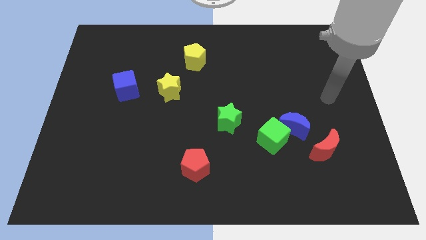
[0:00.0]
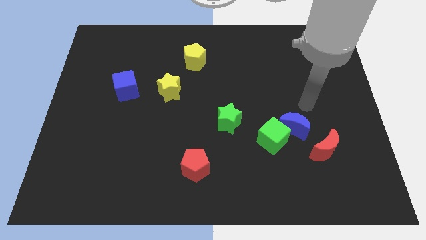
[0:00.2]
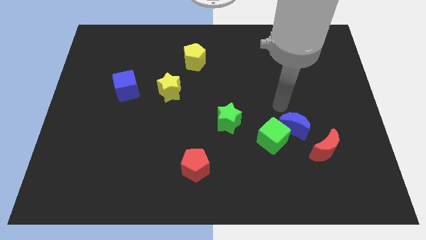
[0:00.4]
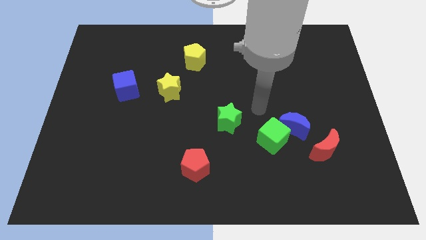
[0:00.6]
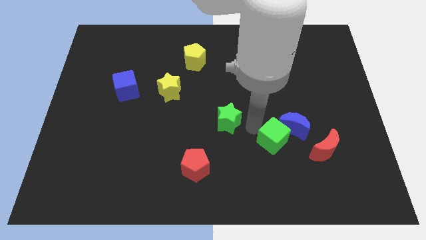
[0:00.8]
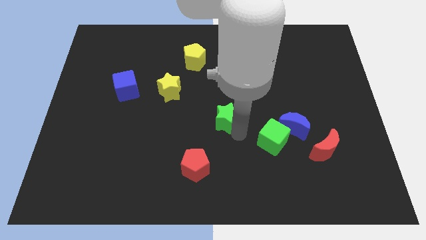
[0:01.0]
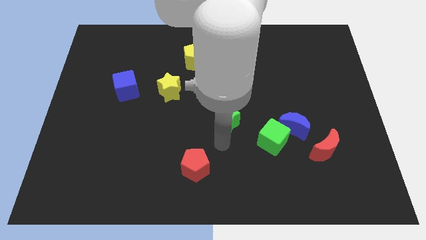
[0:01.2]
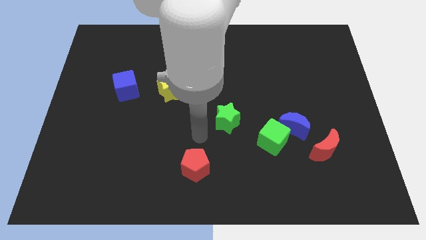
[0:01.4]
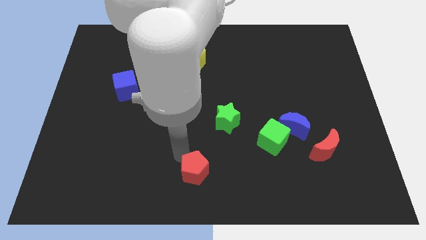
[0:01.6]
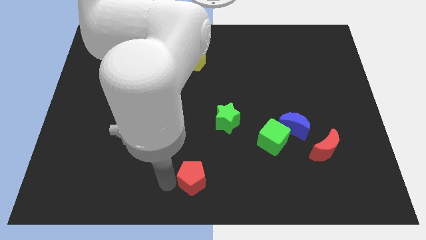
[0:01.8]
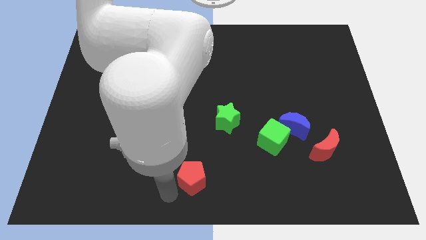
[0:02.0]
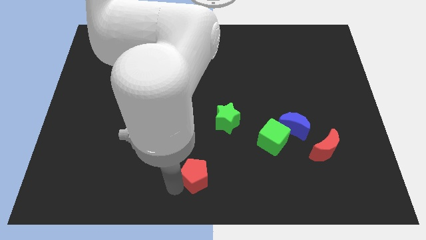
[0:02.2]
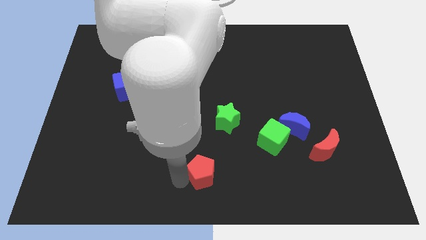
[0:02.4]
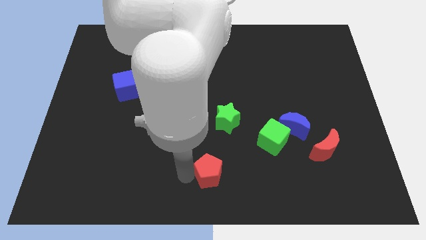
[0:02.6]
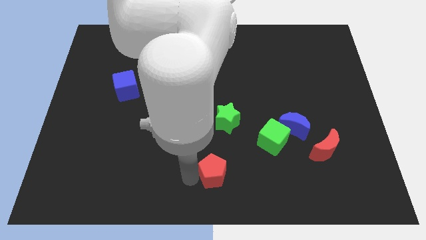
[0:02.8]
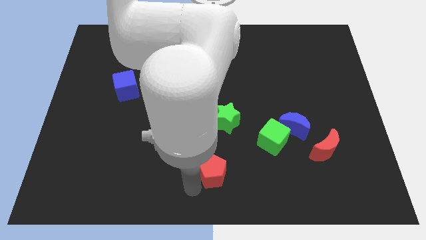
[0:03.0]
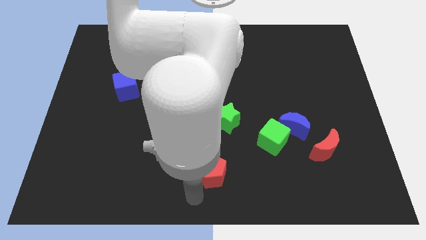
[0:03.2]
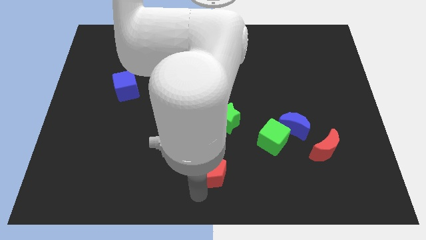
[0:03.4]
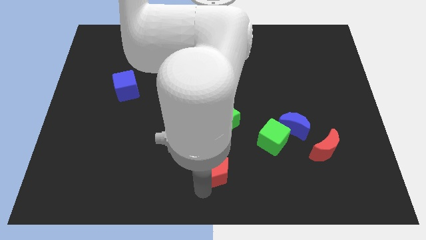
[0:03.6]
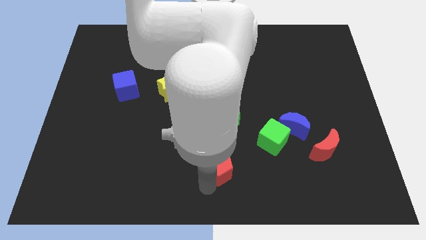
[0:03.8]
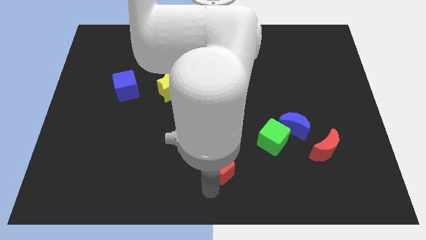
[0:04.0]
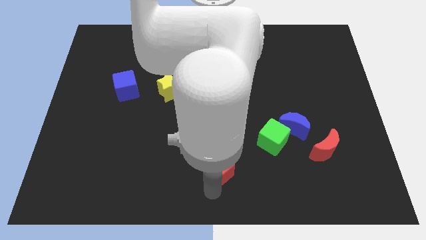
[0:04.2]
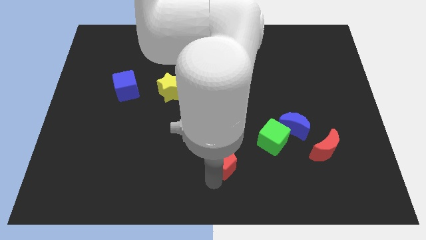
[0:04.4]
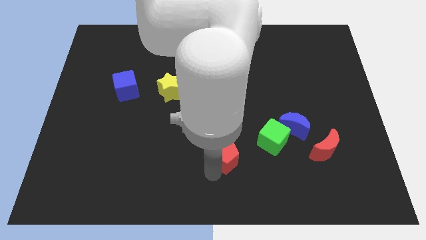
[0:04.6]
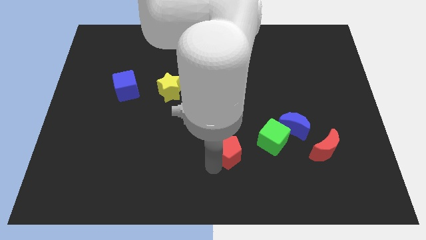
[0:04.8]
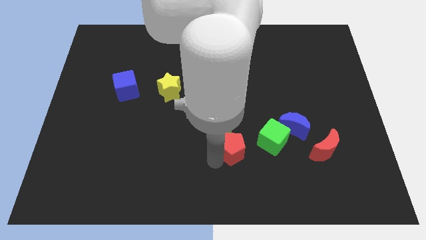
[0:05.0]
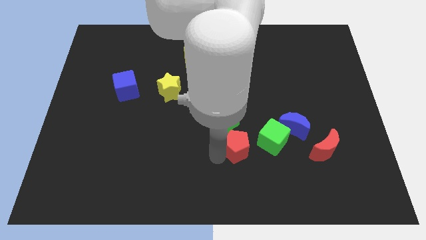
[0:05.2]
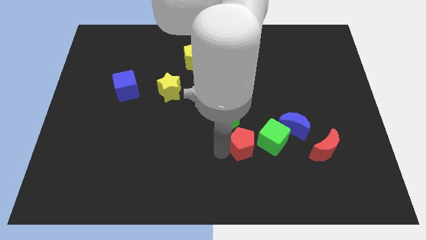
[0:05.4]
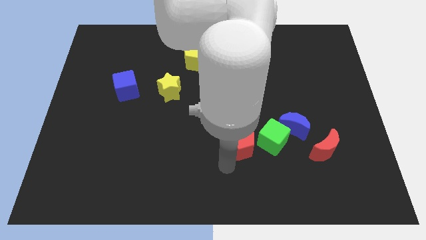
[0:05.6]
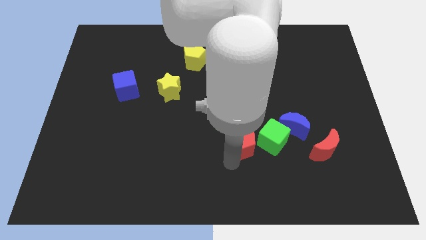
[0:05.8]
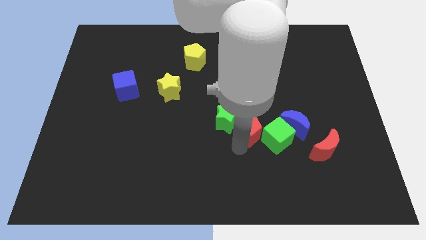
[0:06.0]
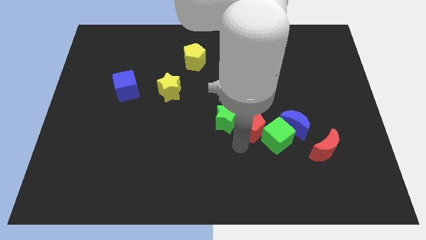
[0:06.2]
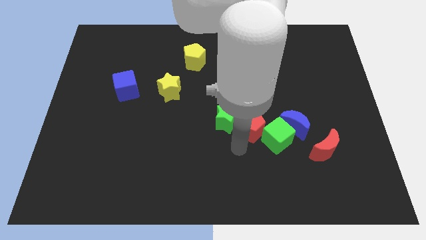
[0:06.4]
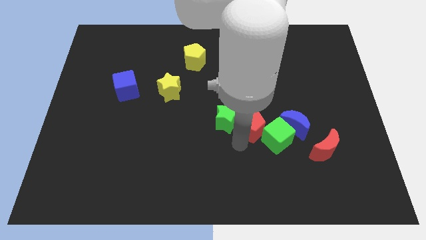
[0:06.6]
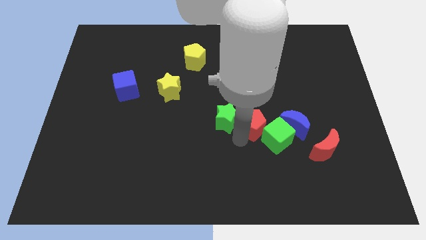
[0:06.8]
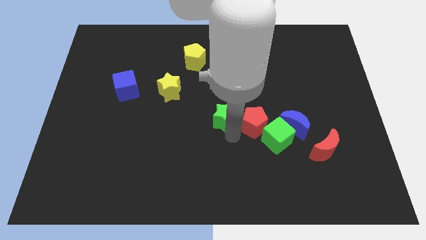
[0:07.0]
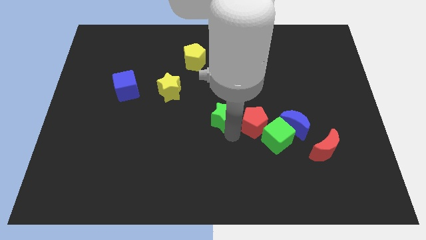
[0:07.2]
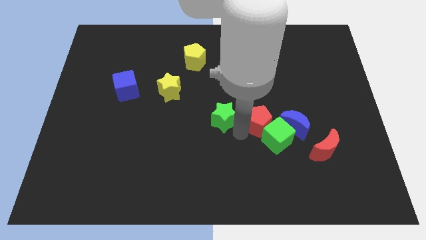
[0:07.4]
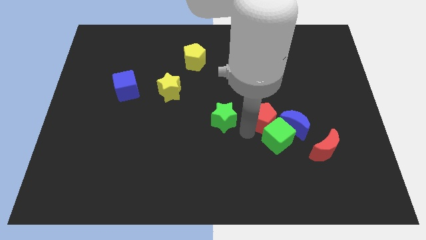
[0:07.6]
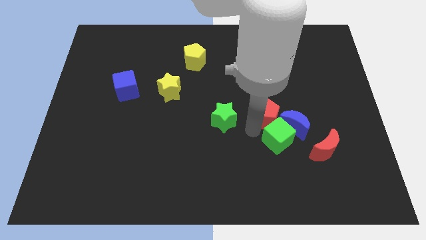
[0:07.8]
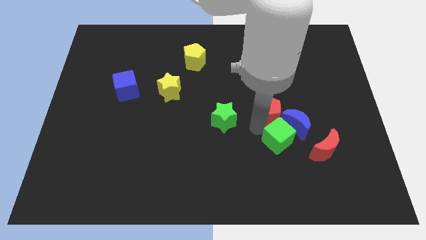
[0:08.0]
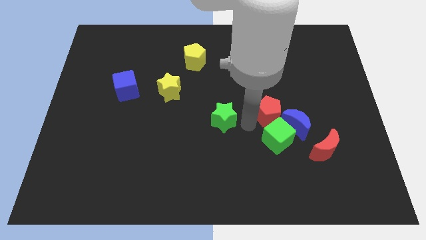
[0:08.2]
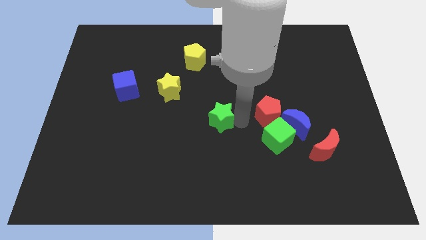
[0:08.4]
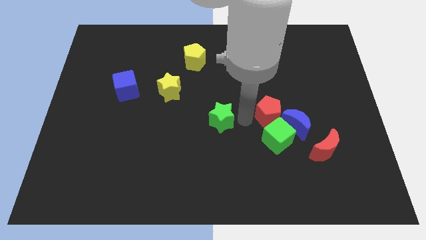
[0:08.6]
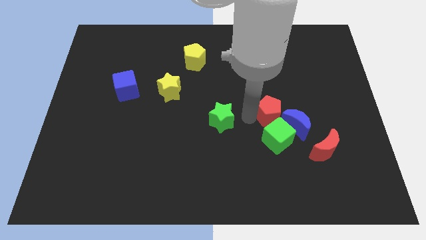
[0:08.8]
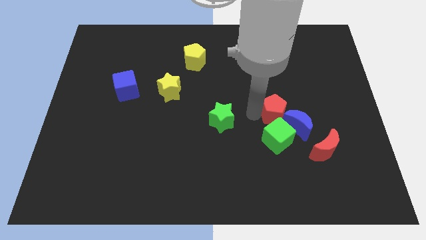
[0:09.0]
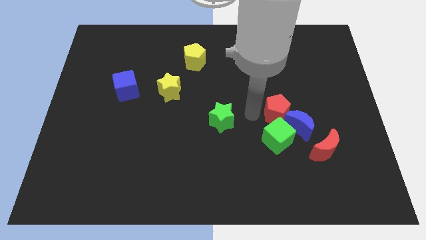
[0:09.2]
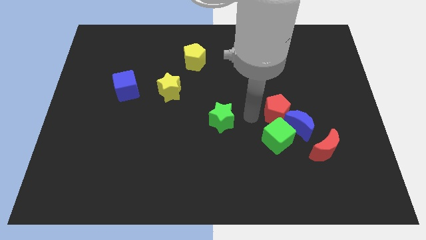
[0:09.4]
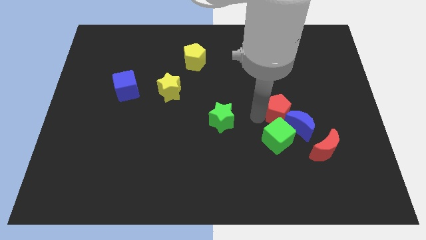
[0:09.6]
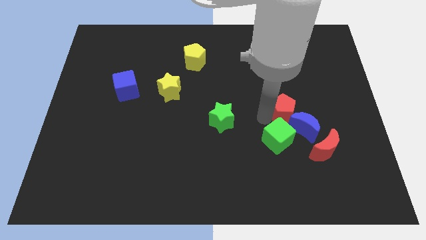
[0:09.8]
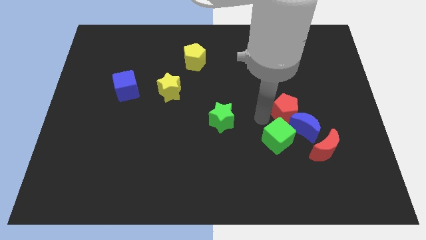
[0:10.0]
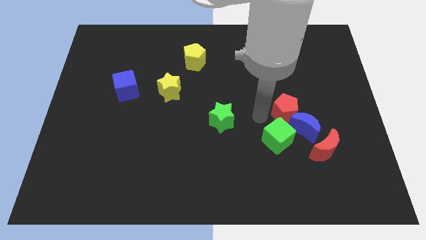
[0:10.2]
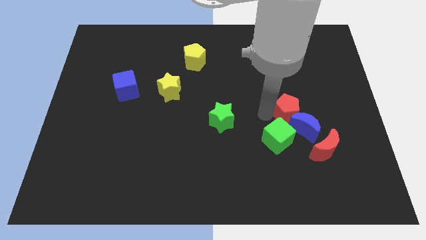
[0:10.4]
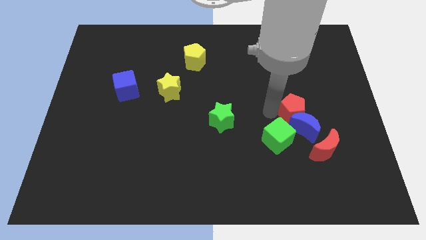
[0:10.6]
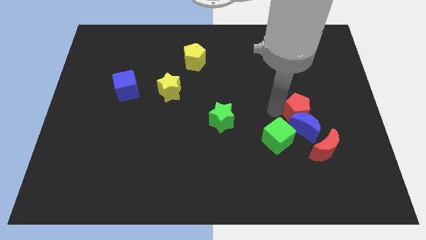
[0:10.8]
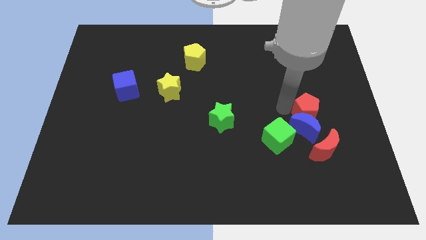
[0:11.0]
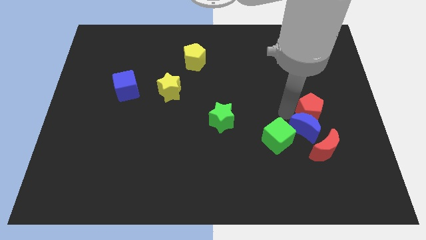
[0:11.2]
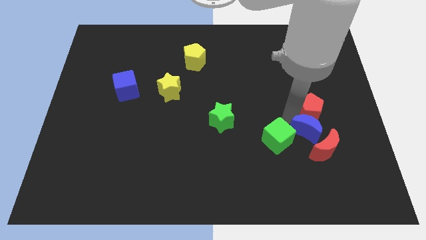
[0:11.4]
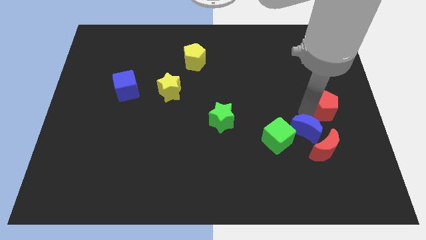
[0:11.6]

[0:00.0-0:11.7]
put the red pentagon to the center right
